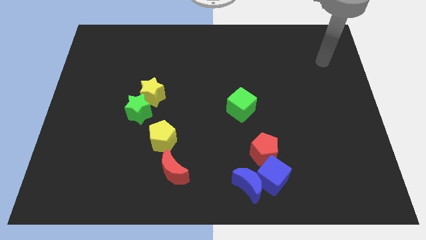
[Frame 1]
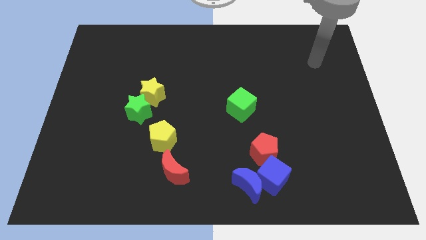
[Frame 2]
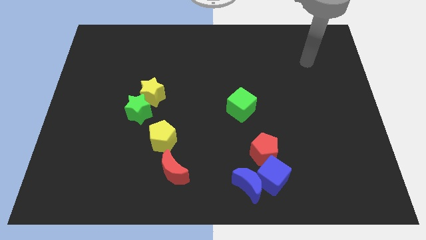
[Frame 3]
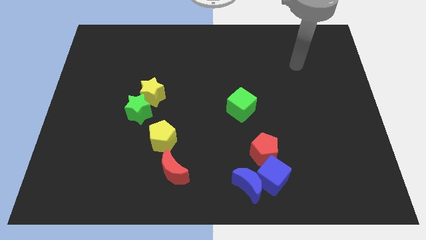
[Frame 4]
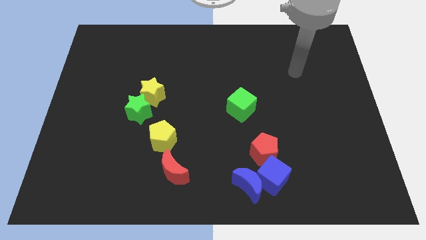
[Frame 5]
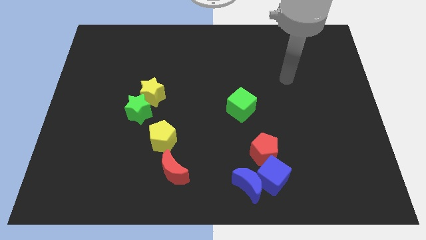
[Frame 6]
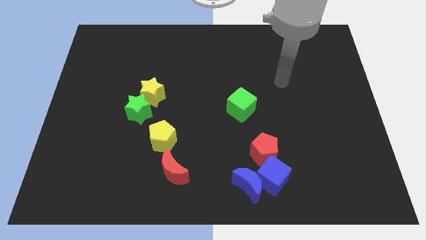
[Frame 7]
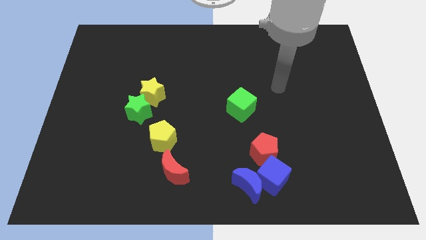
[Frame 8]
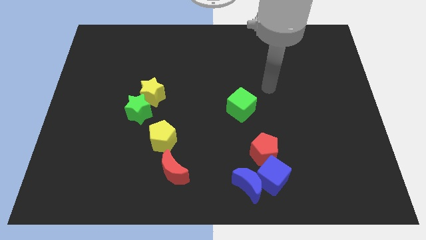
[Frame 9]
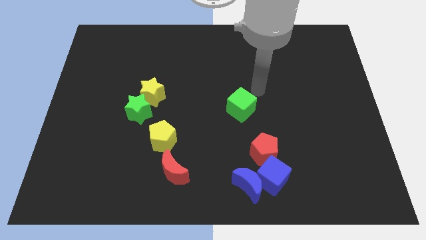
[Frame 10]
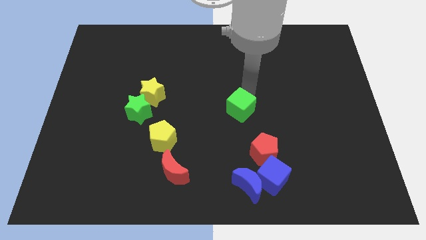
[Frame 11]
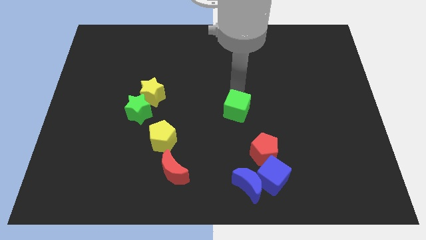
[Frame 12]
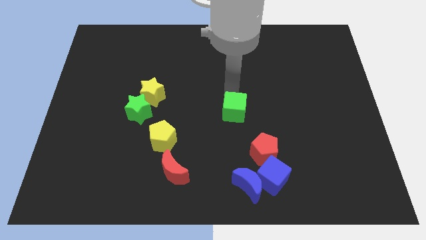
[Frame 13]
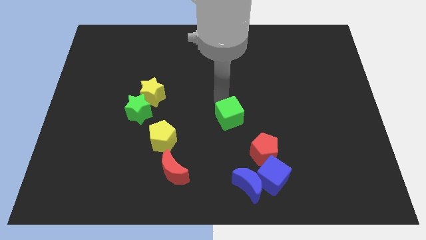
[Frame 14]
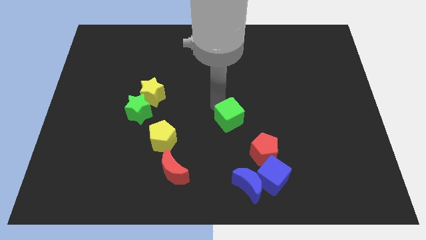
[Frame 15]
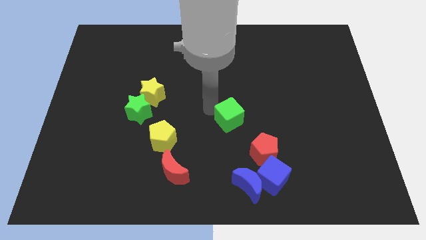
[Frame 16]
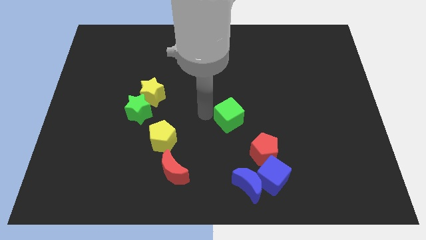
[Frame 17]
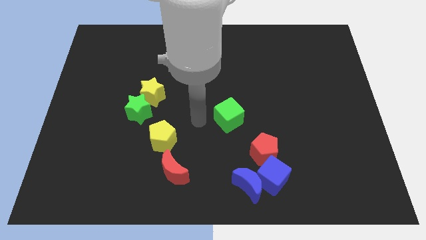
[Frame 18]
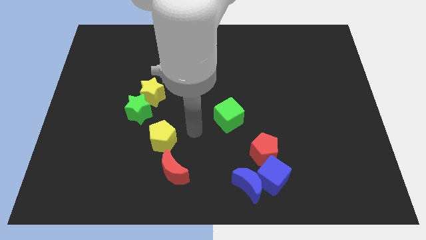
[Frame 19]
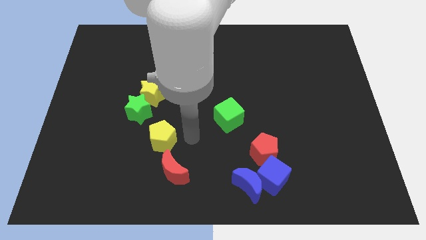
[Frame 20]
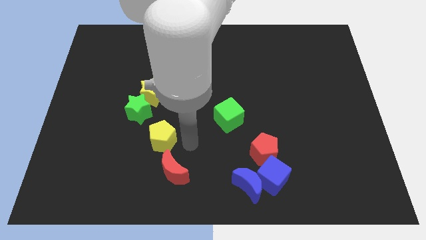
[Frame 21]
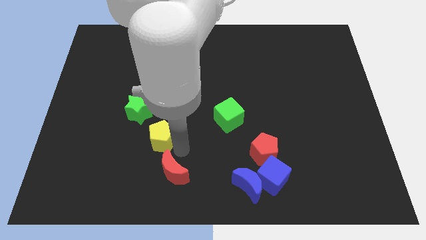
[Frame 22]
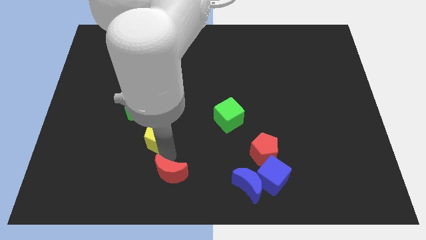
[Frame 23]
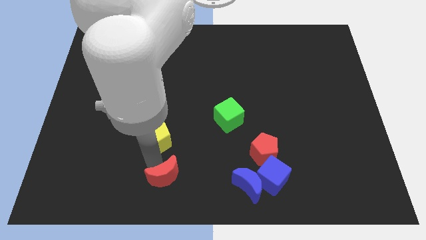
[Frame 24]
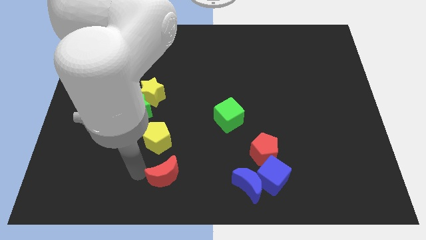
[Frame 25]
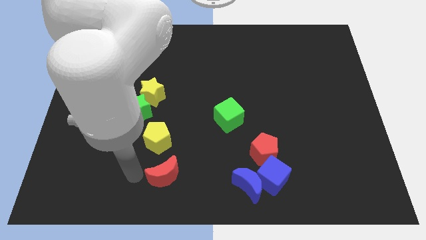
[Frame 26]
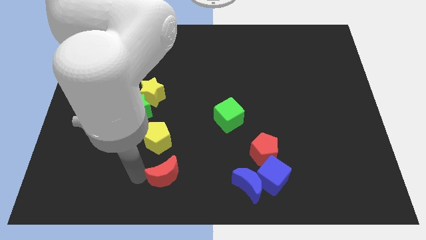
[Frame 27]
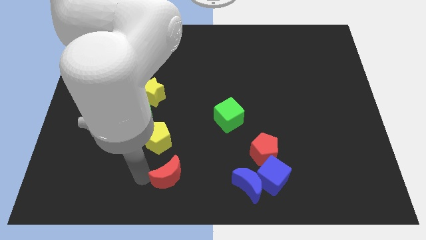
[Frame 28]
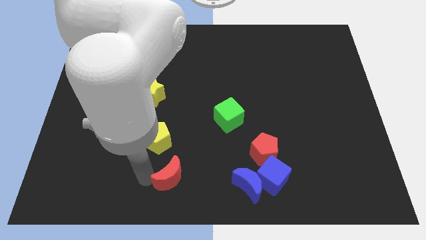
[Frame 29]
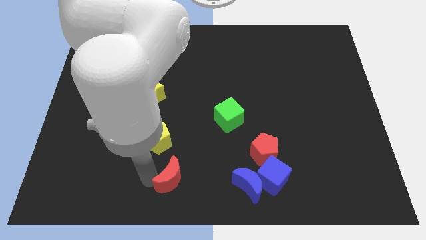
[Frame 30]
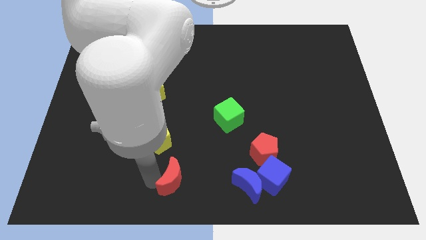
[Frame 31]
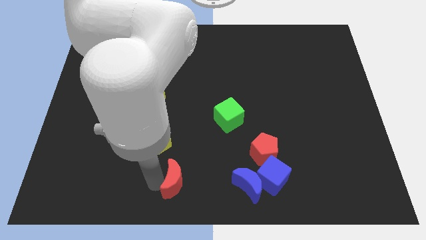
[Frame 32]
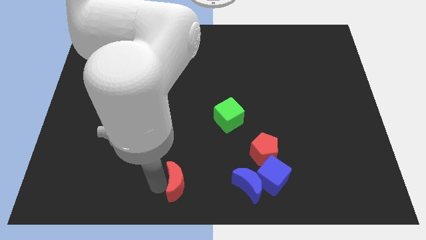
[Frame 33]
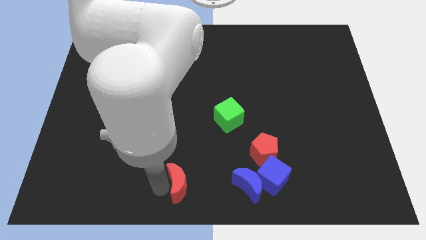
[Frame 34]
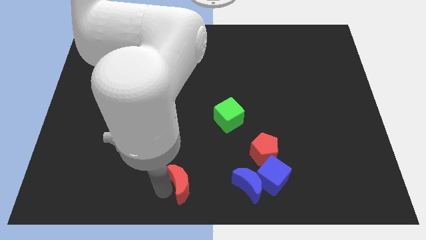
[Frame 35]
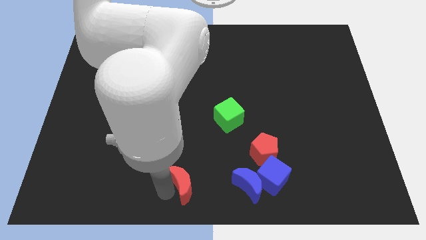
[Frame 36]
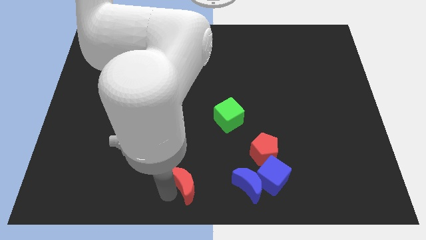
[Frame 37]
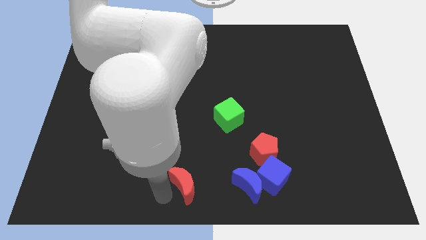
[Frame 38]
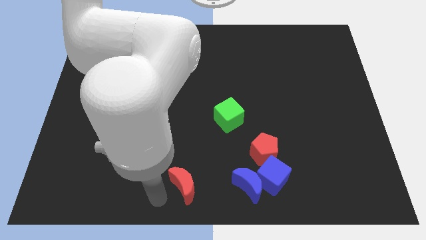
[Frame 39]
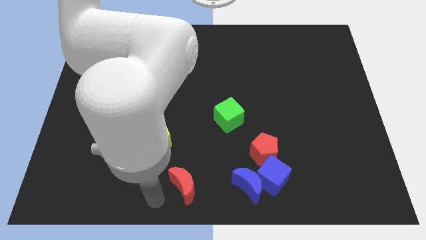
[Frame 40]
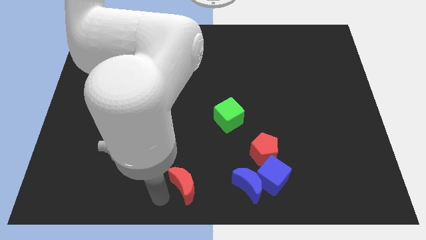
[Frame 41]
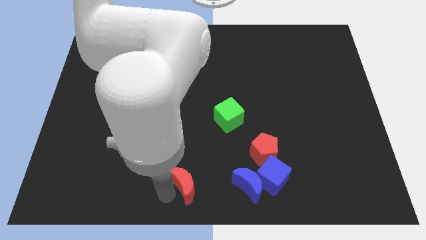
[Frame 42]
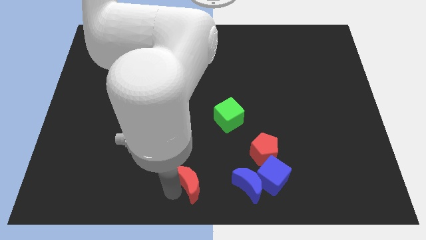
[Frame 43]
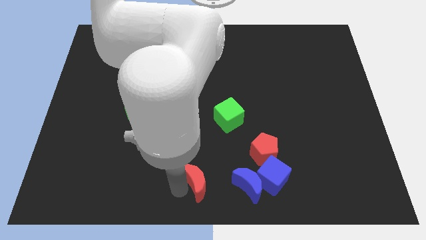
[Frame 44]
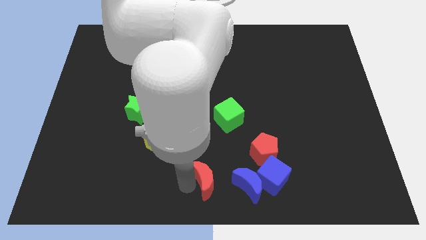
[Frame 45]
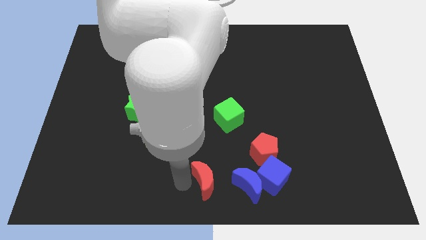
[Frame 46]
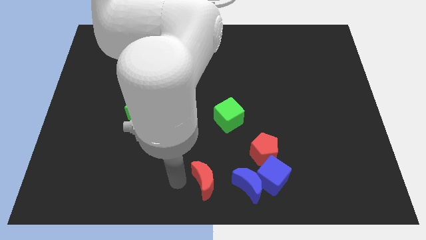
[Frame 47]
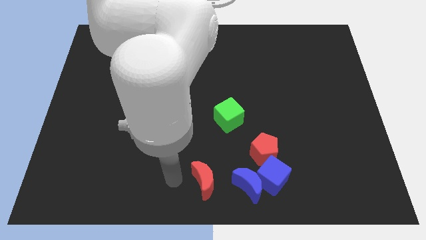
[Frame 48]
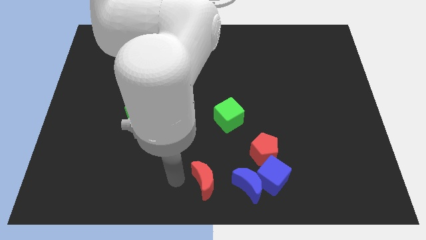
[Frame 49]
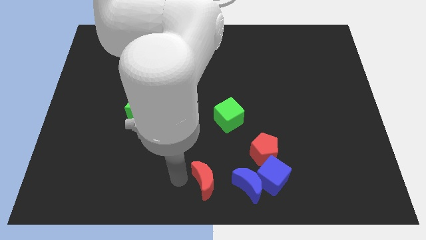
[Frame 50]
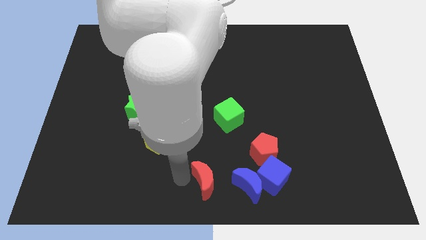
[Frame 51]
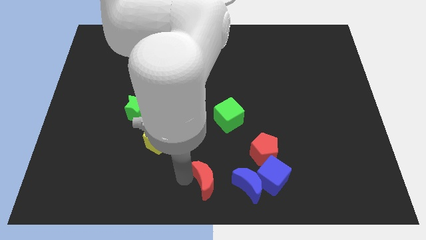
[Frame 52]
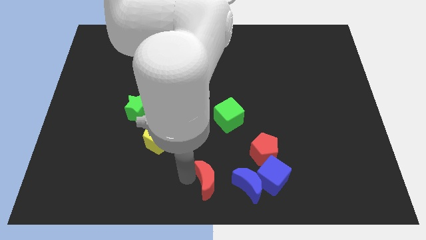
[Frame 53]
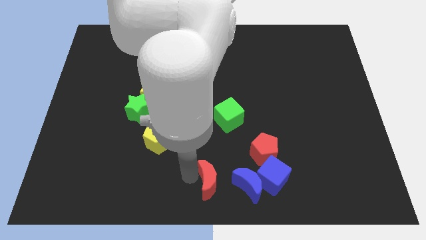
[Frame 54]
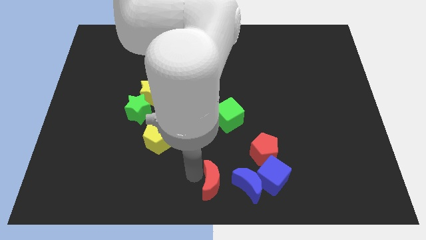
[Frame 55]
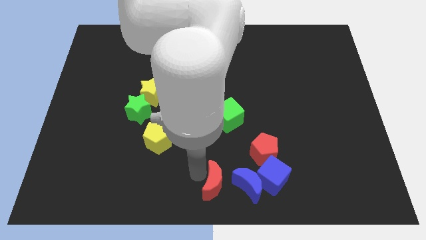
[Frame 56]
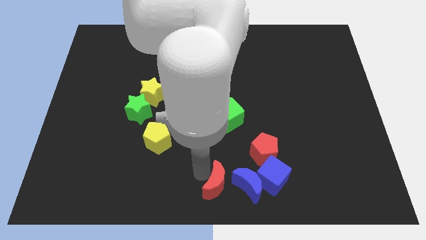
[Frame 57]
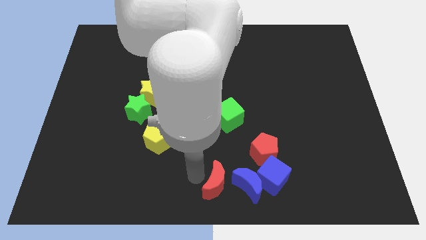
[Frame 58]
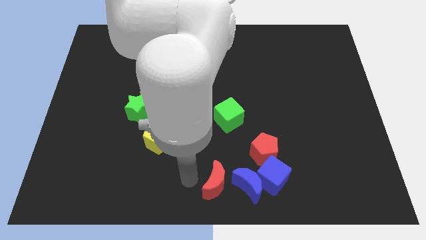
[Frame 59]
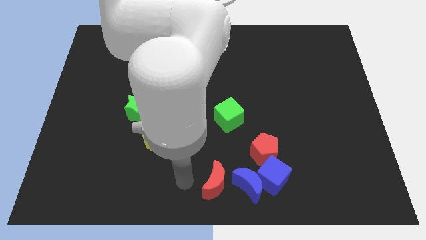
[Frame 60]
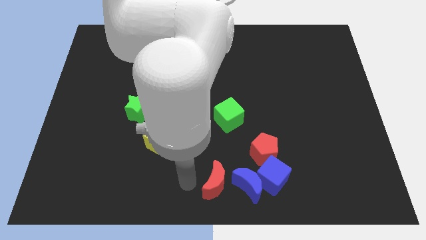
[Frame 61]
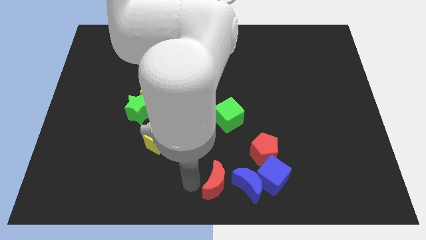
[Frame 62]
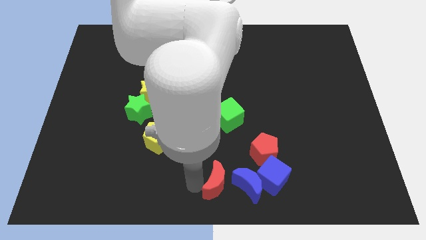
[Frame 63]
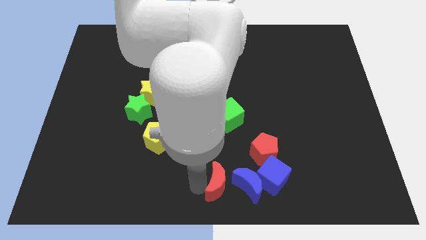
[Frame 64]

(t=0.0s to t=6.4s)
put the red moon next to the blue moon
